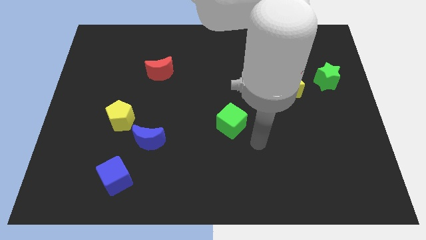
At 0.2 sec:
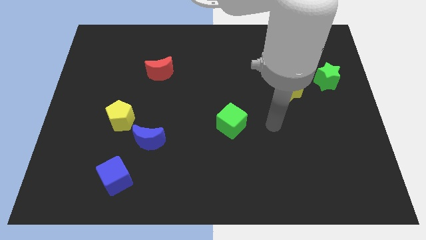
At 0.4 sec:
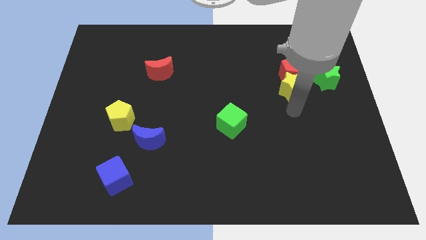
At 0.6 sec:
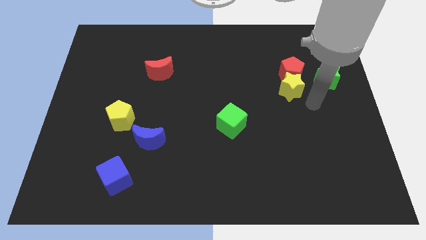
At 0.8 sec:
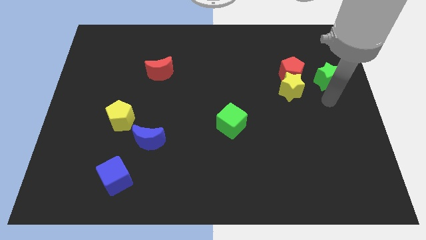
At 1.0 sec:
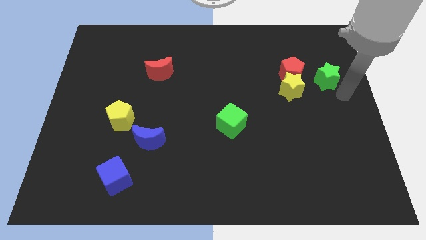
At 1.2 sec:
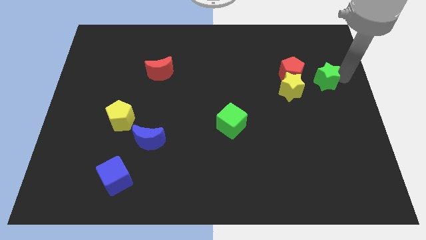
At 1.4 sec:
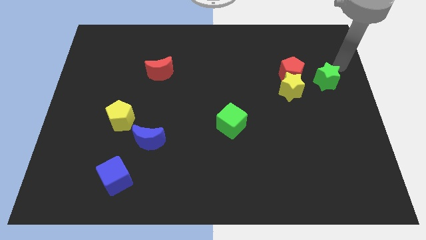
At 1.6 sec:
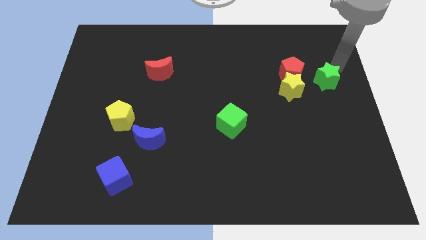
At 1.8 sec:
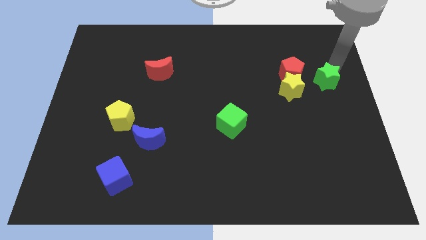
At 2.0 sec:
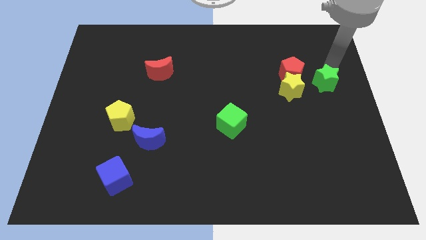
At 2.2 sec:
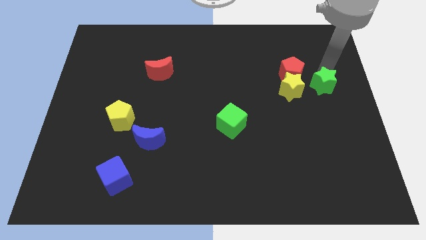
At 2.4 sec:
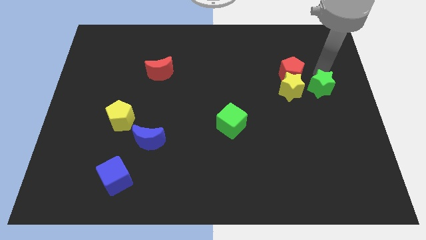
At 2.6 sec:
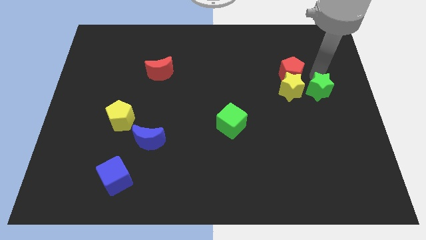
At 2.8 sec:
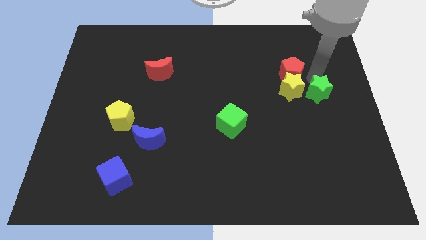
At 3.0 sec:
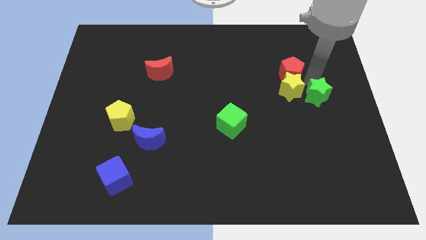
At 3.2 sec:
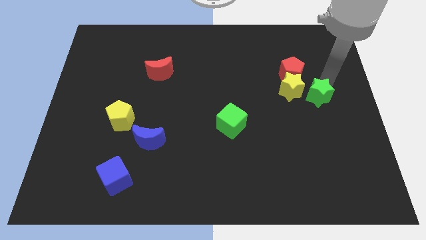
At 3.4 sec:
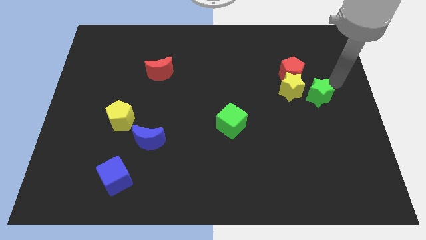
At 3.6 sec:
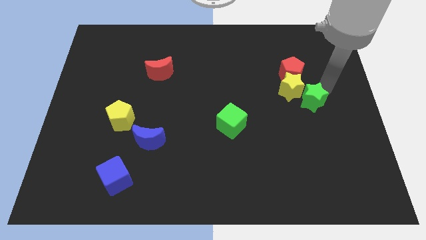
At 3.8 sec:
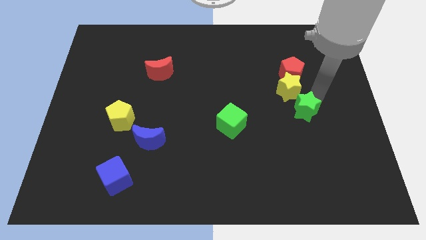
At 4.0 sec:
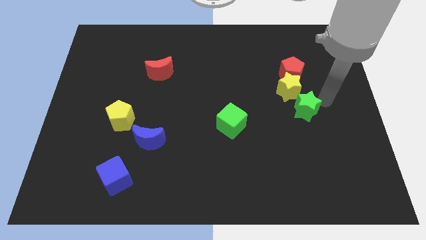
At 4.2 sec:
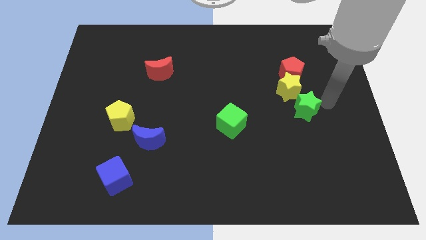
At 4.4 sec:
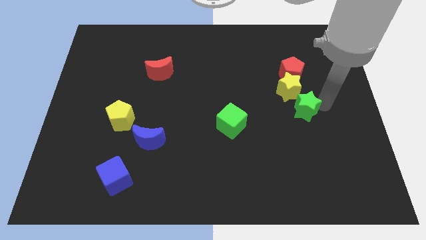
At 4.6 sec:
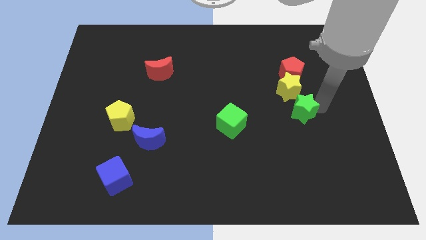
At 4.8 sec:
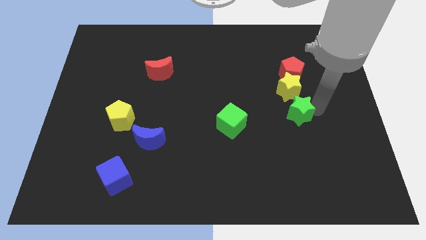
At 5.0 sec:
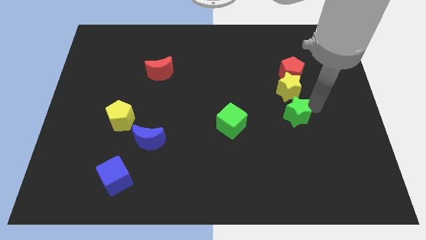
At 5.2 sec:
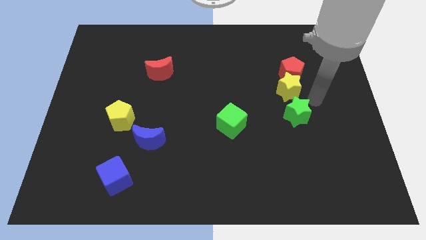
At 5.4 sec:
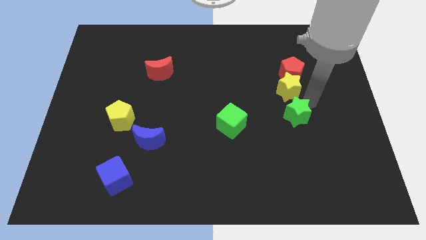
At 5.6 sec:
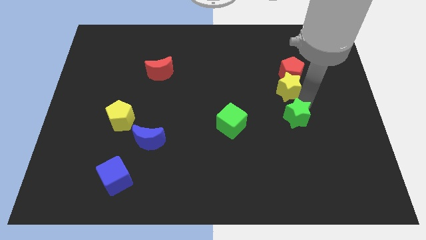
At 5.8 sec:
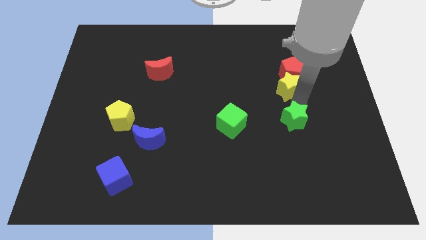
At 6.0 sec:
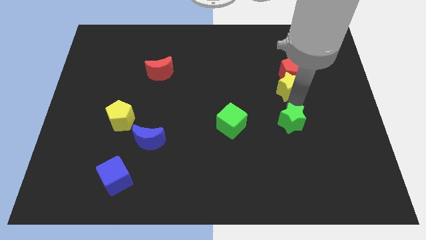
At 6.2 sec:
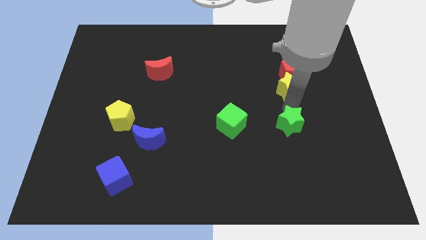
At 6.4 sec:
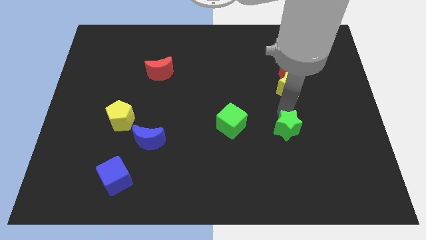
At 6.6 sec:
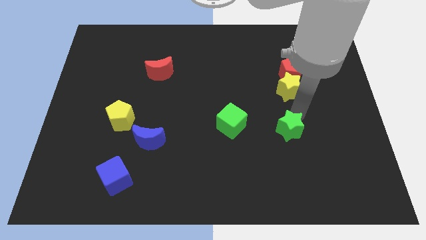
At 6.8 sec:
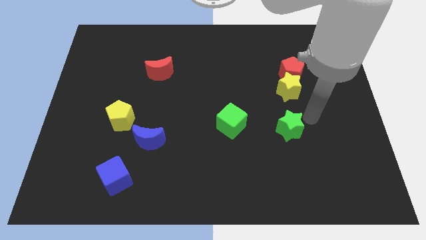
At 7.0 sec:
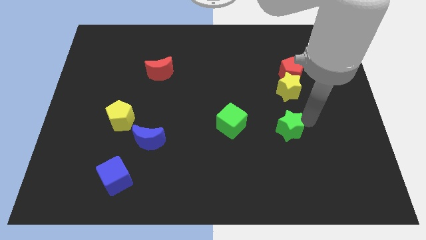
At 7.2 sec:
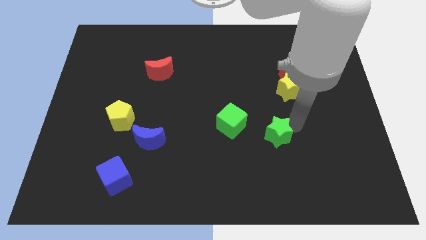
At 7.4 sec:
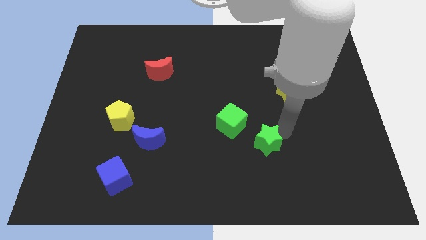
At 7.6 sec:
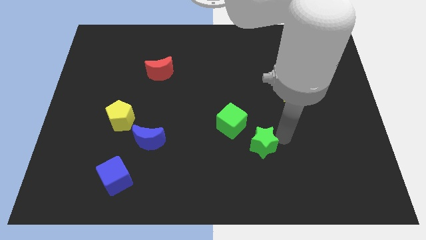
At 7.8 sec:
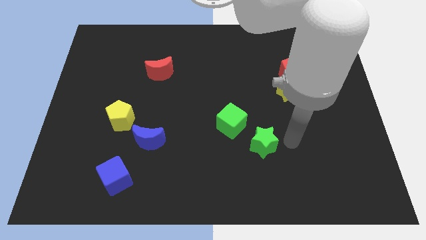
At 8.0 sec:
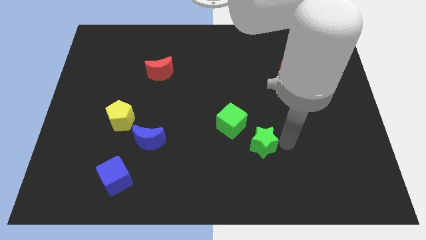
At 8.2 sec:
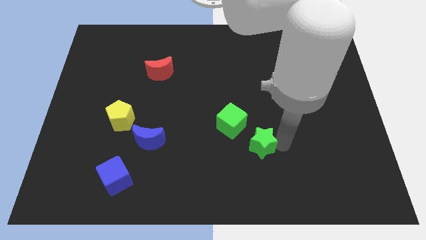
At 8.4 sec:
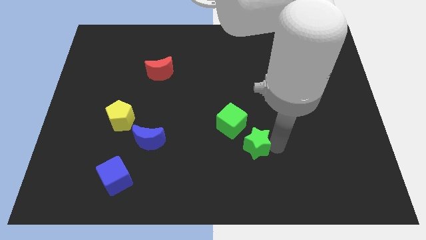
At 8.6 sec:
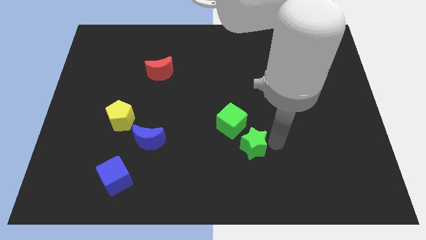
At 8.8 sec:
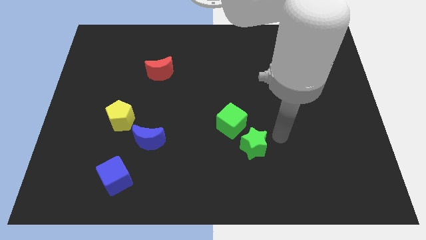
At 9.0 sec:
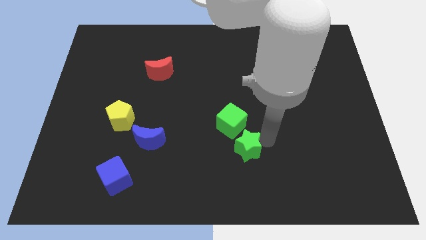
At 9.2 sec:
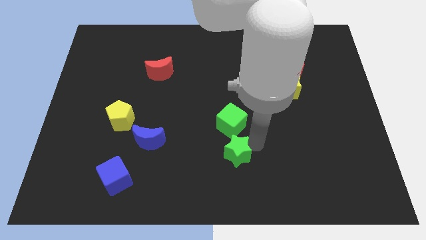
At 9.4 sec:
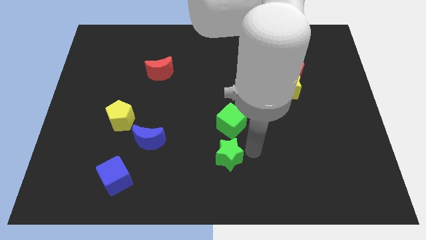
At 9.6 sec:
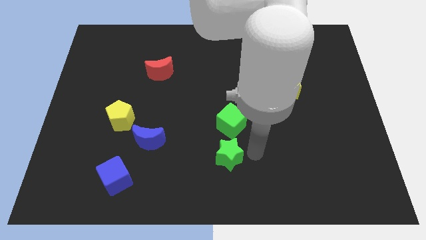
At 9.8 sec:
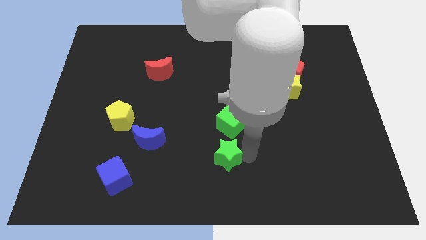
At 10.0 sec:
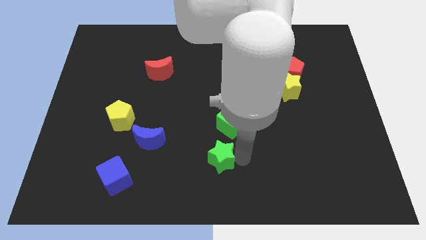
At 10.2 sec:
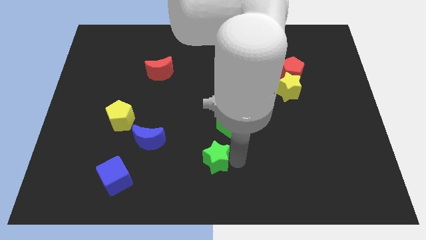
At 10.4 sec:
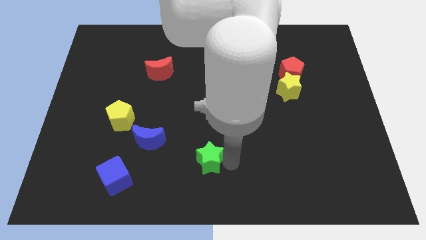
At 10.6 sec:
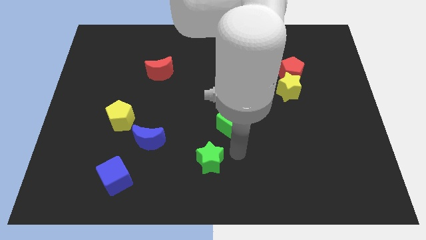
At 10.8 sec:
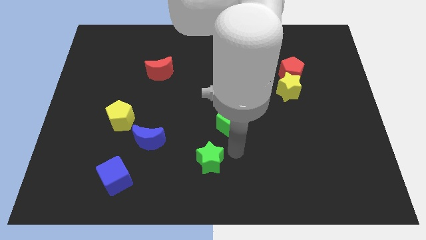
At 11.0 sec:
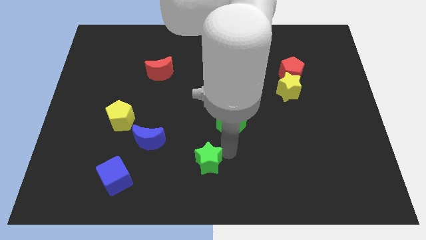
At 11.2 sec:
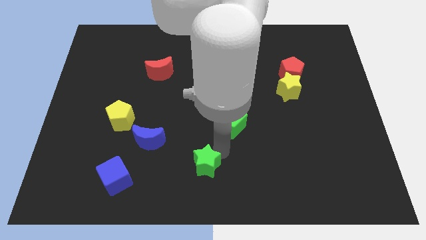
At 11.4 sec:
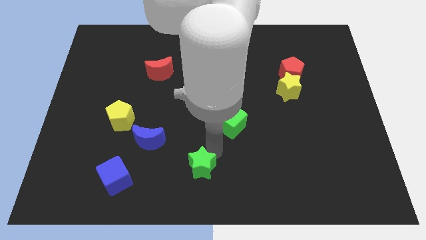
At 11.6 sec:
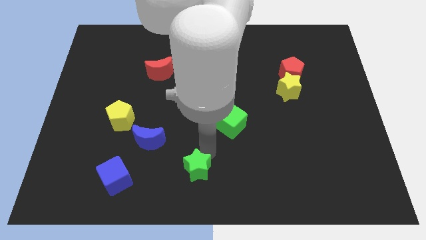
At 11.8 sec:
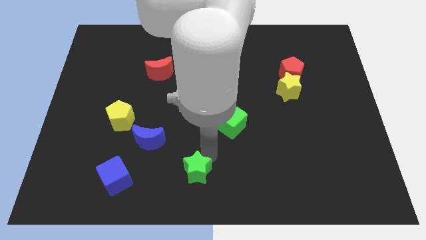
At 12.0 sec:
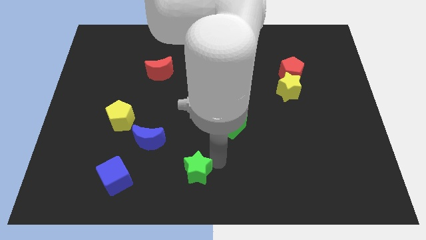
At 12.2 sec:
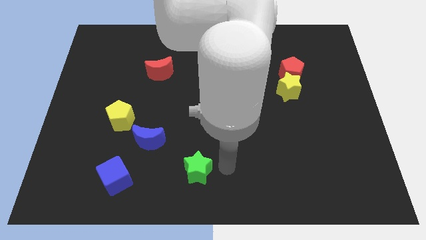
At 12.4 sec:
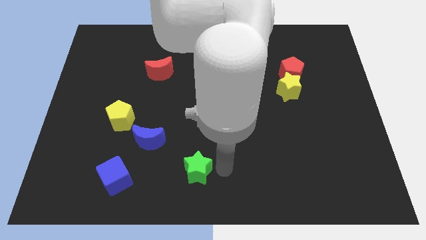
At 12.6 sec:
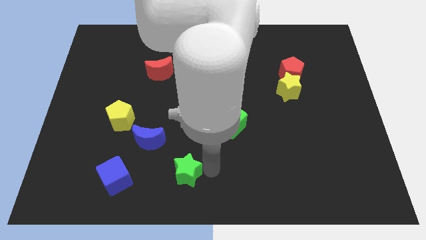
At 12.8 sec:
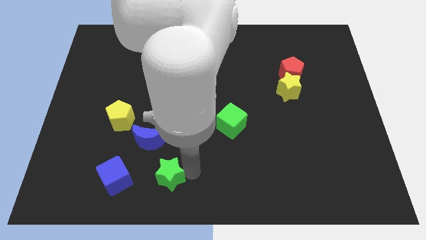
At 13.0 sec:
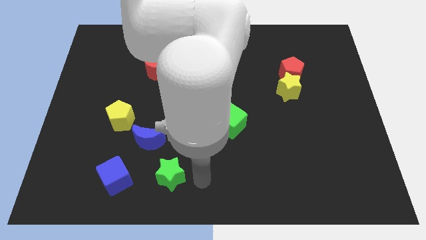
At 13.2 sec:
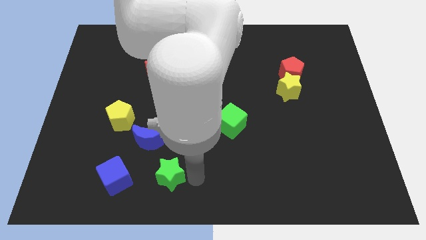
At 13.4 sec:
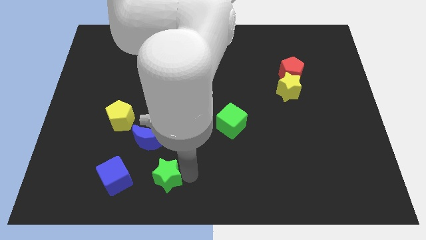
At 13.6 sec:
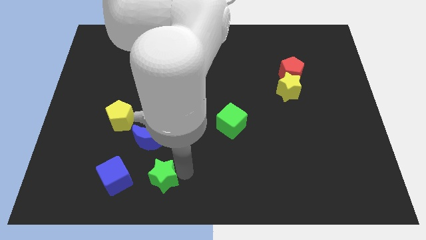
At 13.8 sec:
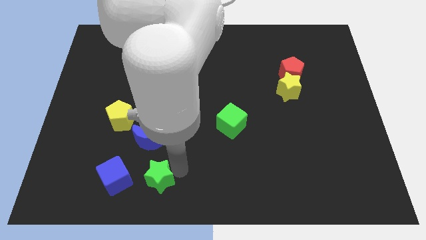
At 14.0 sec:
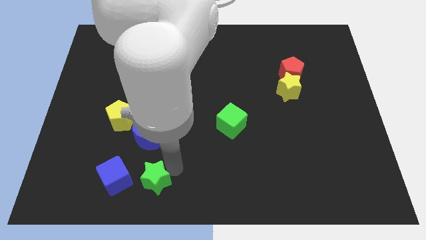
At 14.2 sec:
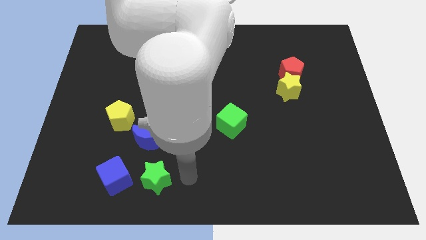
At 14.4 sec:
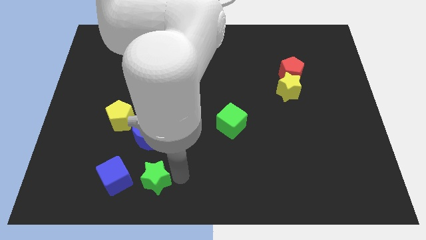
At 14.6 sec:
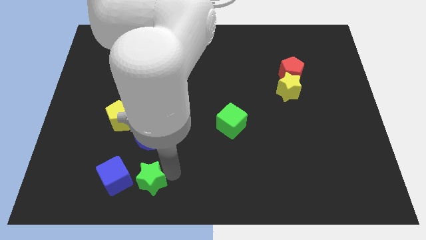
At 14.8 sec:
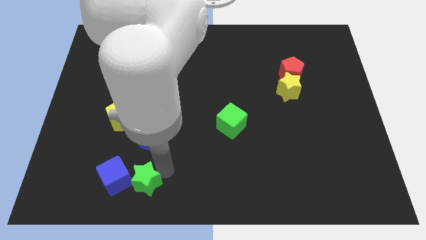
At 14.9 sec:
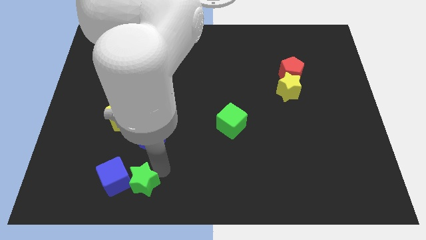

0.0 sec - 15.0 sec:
put the green star towards the blue cube
